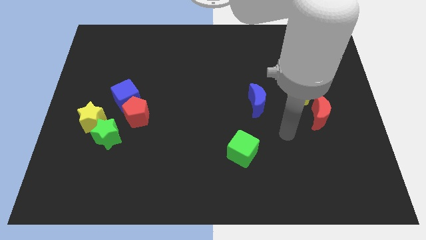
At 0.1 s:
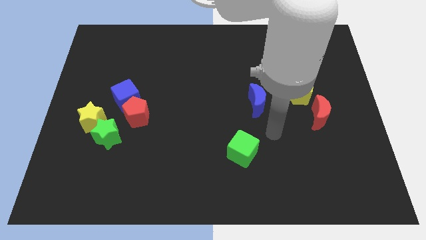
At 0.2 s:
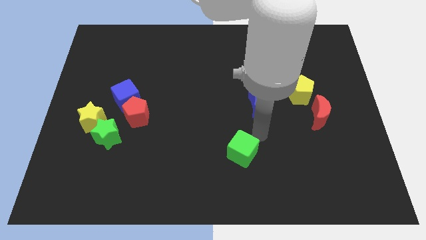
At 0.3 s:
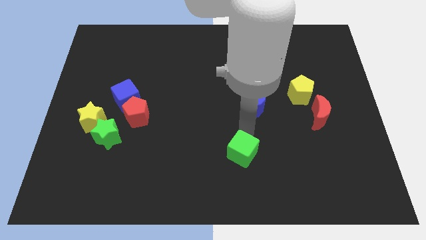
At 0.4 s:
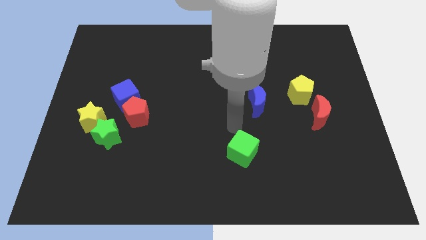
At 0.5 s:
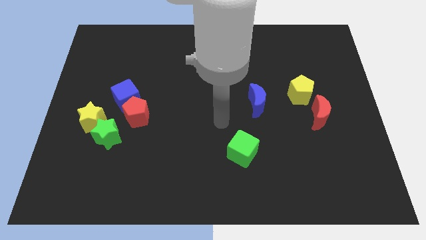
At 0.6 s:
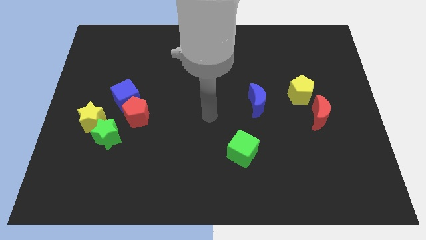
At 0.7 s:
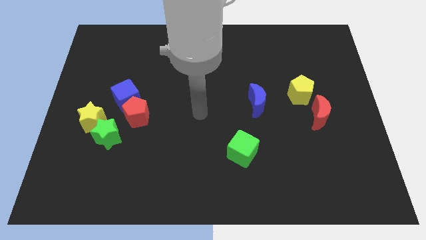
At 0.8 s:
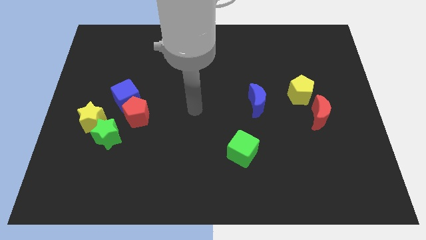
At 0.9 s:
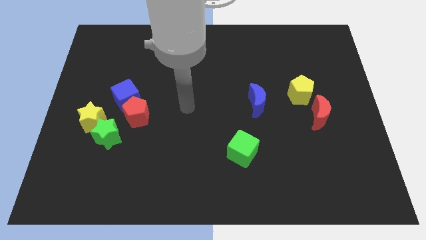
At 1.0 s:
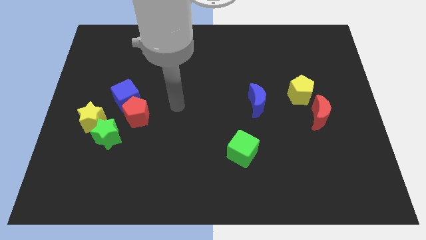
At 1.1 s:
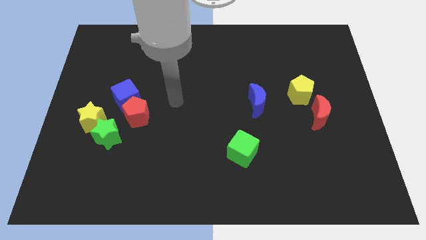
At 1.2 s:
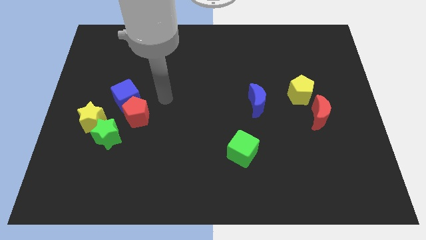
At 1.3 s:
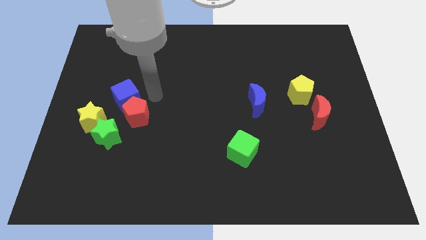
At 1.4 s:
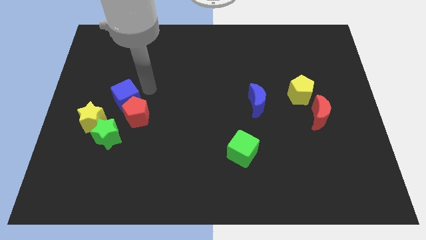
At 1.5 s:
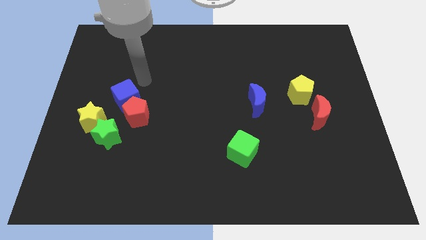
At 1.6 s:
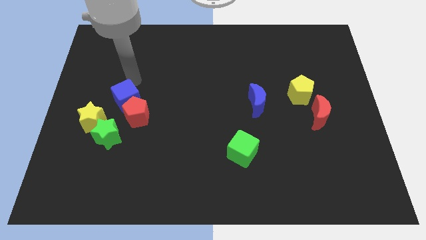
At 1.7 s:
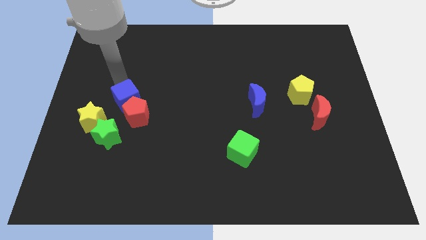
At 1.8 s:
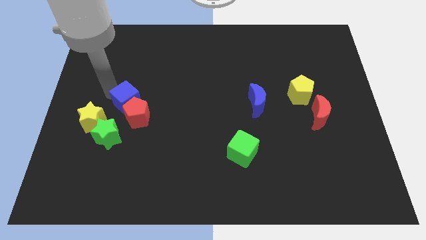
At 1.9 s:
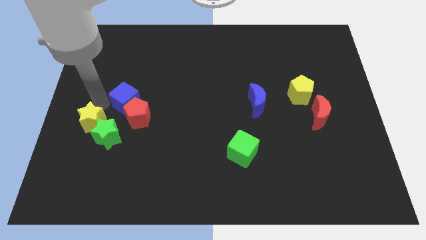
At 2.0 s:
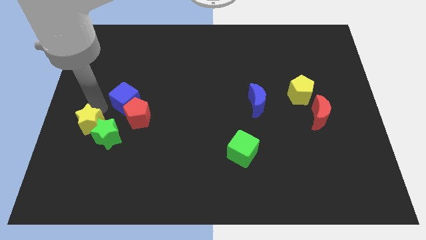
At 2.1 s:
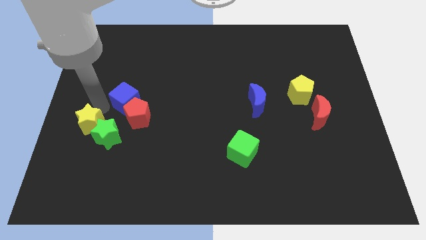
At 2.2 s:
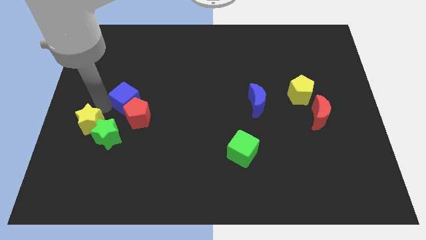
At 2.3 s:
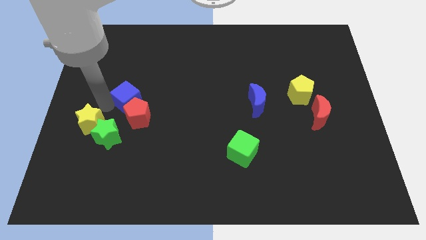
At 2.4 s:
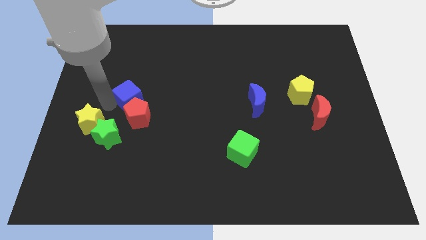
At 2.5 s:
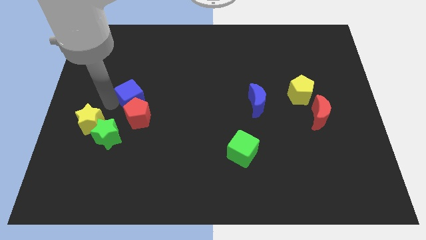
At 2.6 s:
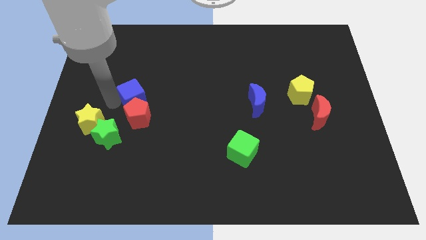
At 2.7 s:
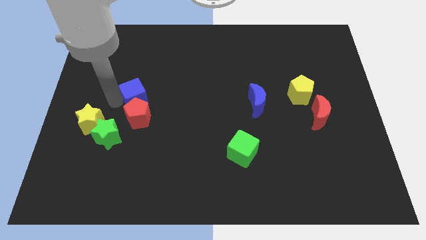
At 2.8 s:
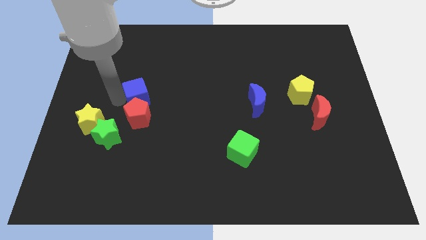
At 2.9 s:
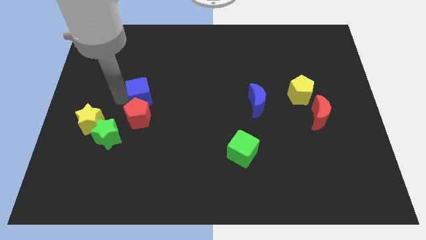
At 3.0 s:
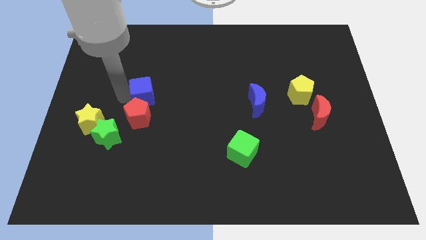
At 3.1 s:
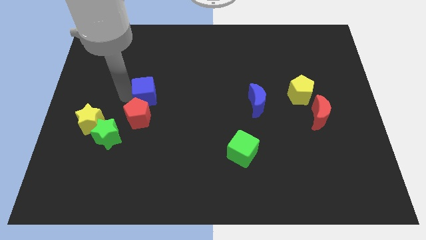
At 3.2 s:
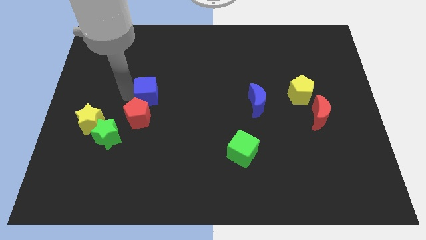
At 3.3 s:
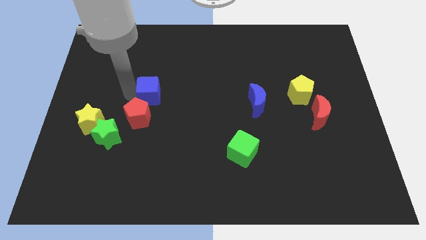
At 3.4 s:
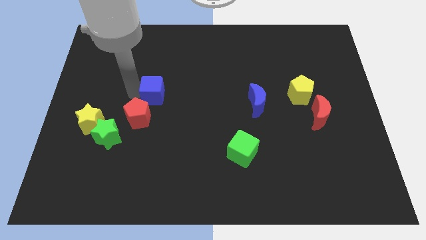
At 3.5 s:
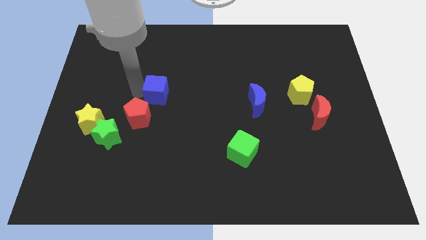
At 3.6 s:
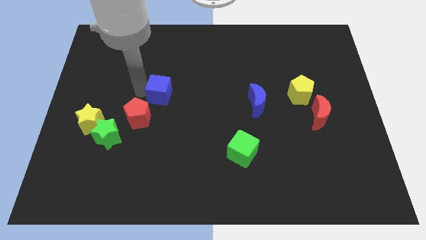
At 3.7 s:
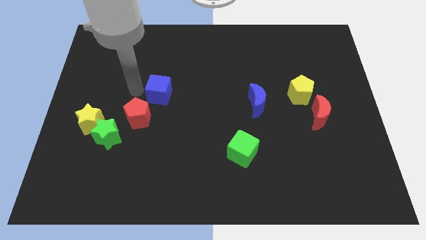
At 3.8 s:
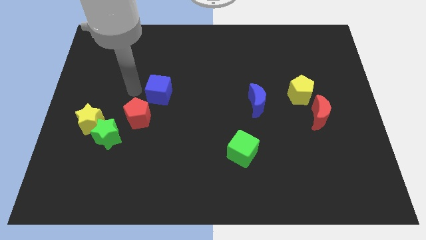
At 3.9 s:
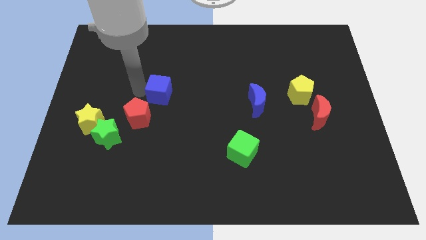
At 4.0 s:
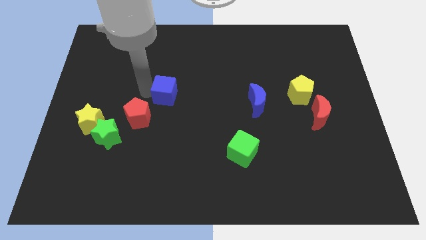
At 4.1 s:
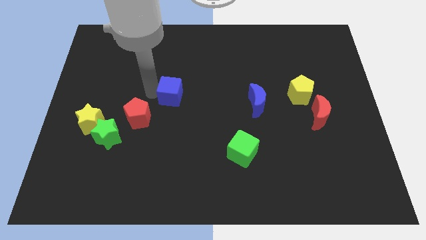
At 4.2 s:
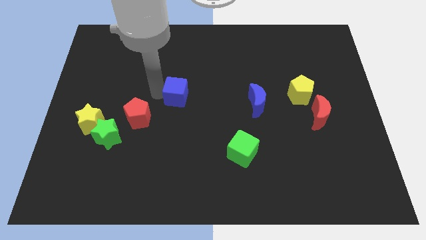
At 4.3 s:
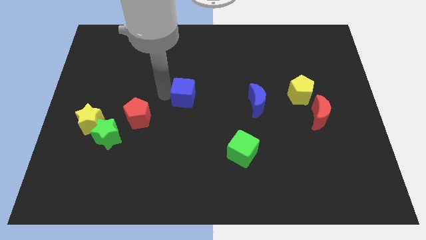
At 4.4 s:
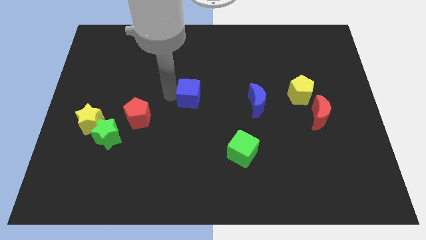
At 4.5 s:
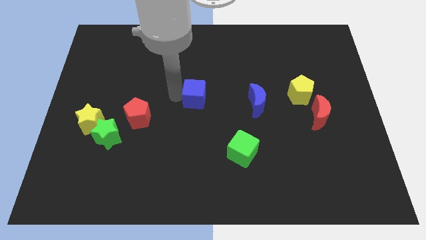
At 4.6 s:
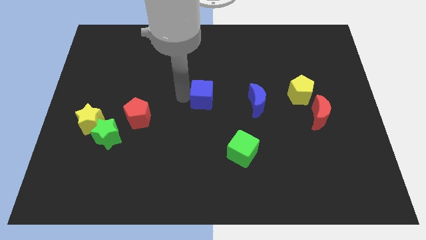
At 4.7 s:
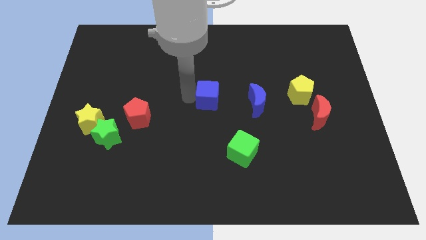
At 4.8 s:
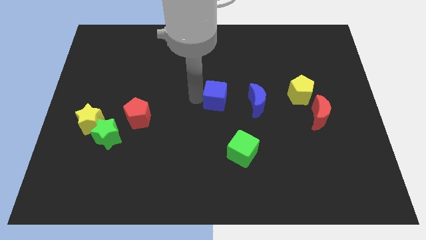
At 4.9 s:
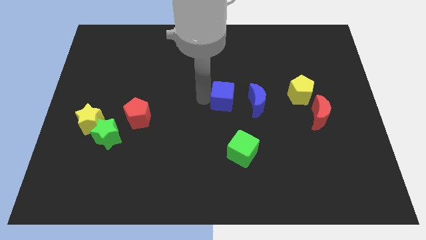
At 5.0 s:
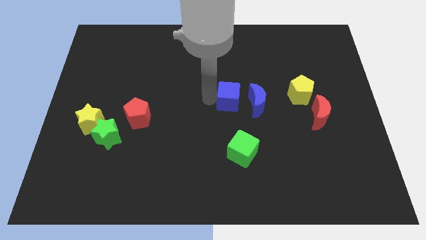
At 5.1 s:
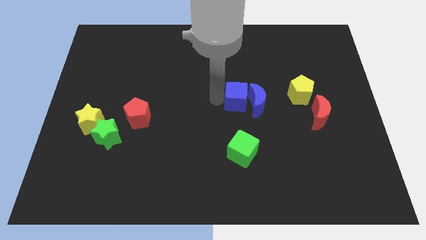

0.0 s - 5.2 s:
push the blue cube next to the blue moon

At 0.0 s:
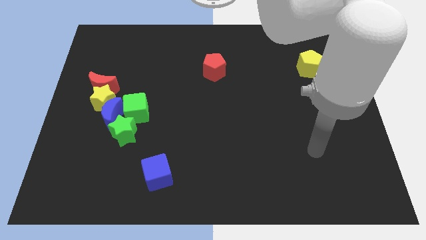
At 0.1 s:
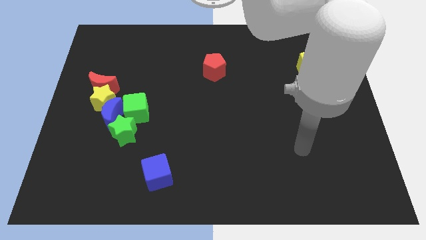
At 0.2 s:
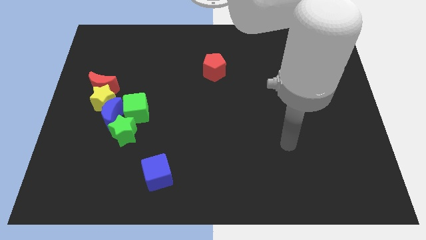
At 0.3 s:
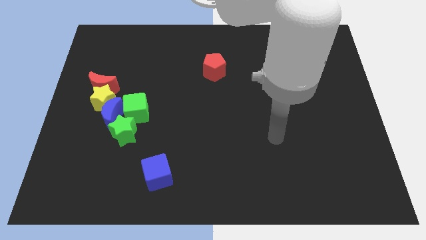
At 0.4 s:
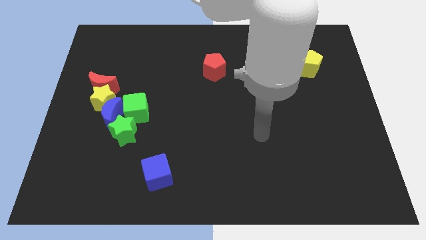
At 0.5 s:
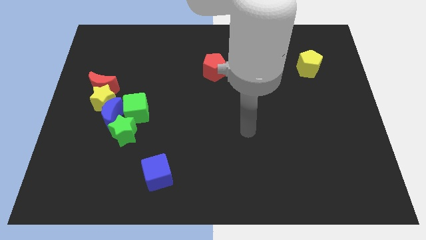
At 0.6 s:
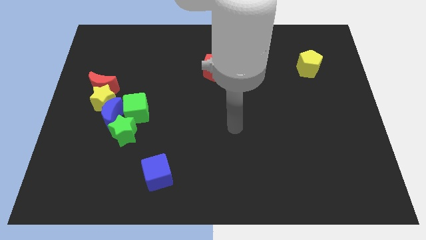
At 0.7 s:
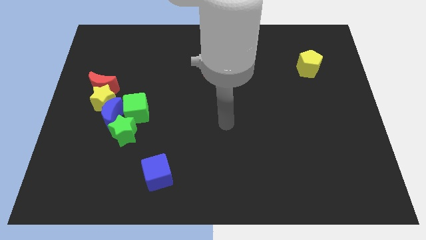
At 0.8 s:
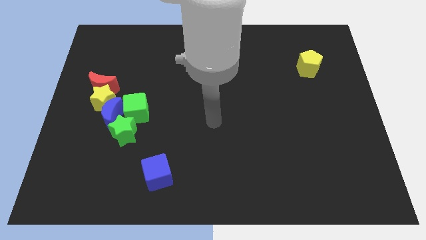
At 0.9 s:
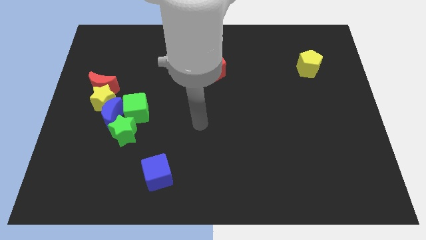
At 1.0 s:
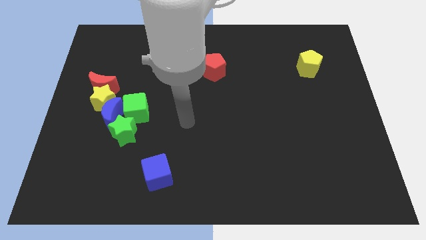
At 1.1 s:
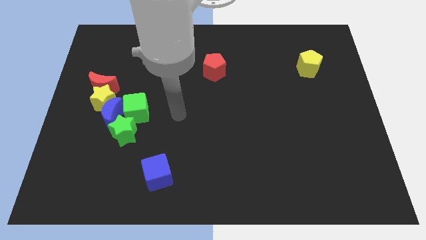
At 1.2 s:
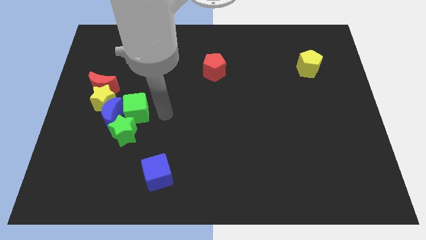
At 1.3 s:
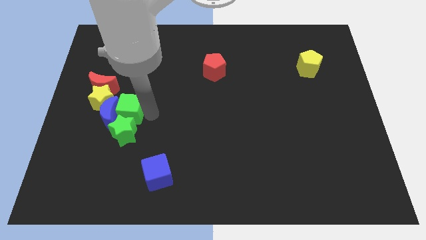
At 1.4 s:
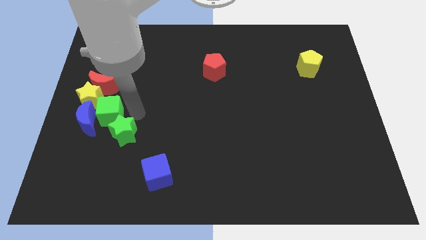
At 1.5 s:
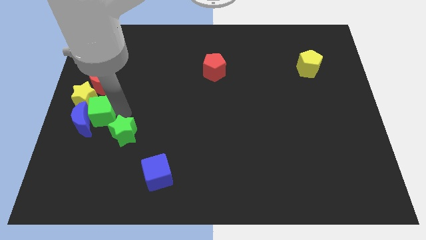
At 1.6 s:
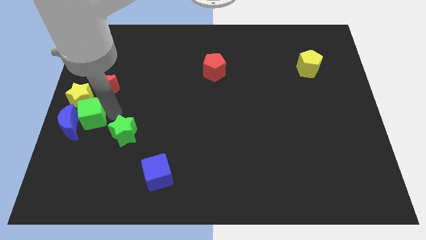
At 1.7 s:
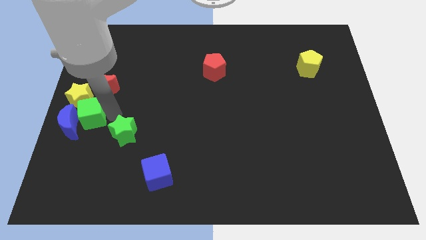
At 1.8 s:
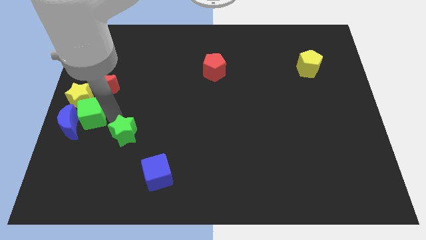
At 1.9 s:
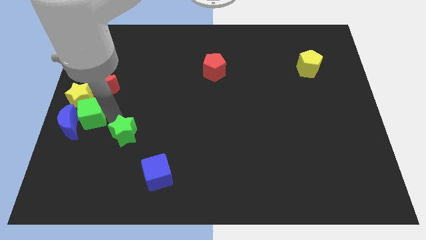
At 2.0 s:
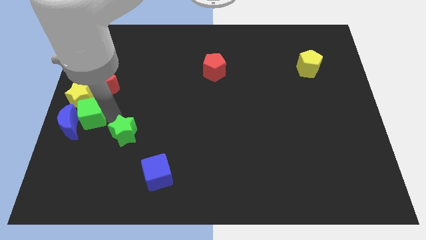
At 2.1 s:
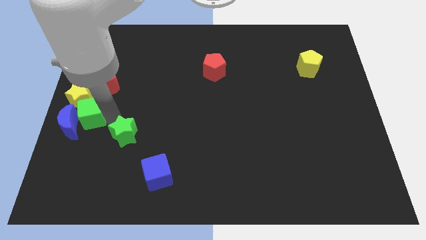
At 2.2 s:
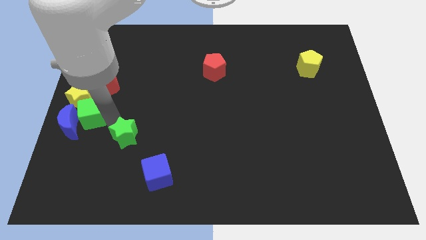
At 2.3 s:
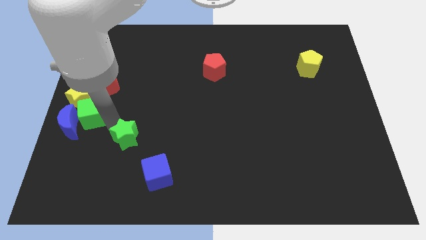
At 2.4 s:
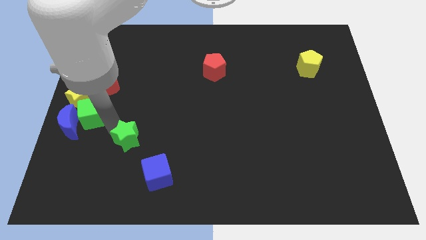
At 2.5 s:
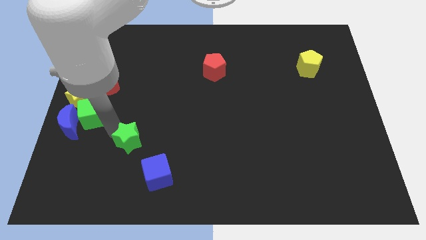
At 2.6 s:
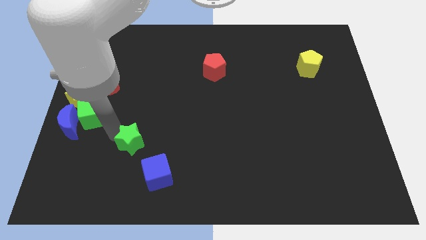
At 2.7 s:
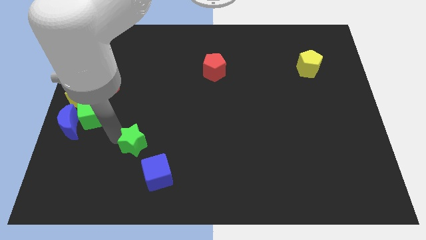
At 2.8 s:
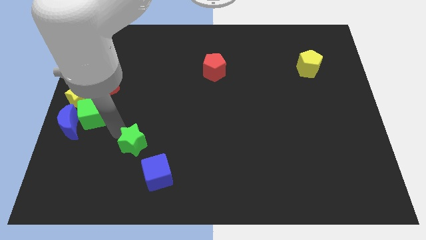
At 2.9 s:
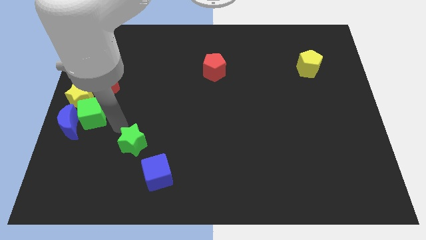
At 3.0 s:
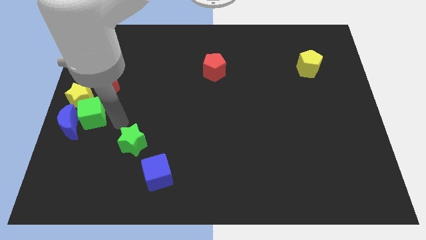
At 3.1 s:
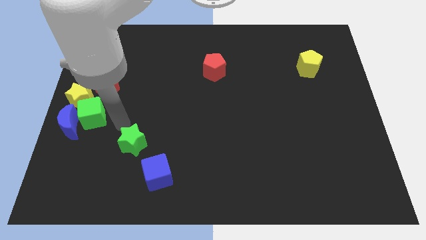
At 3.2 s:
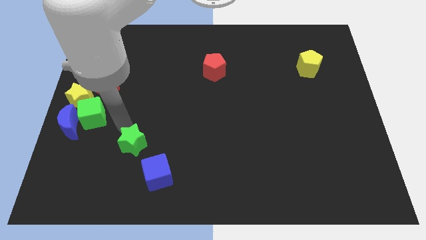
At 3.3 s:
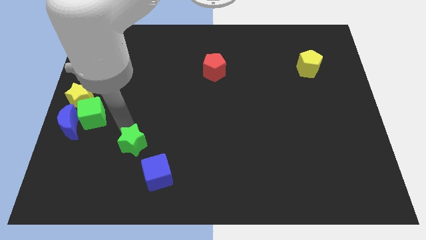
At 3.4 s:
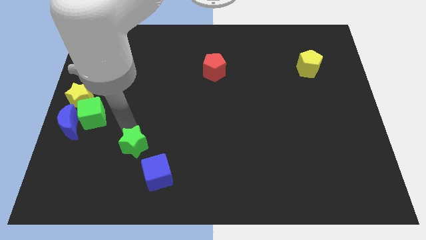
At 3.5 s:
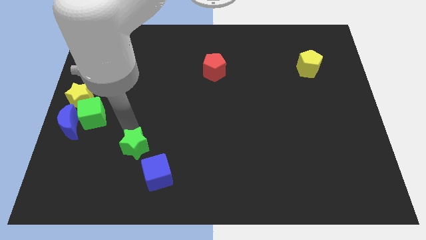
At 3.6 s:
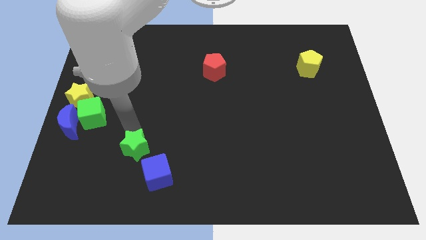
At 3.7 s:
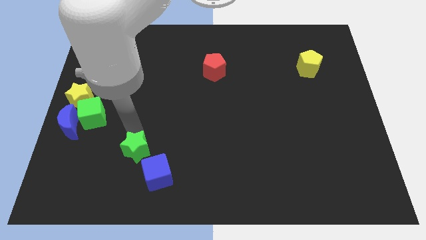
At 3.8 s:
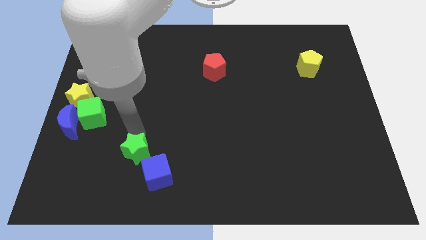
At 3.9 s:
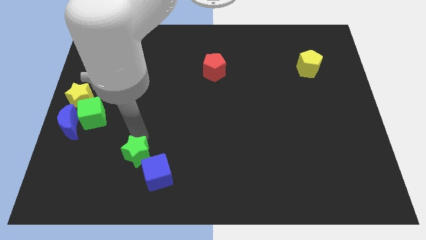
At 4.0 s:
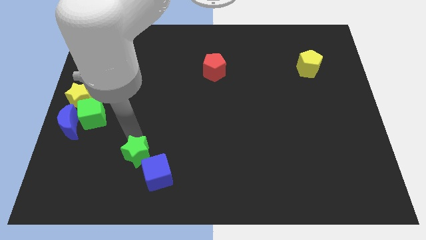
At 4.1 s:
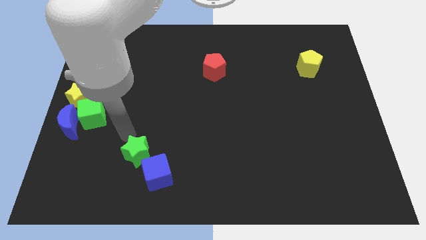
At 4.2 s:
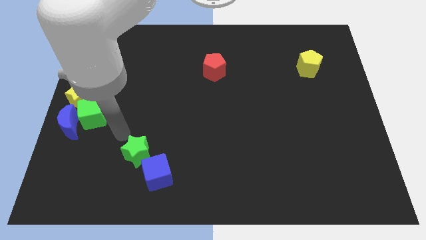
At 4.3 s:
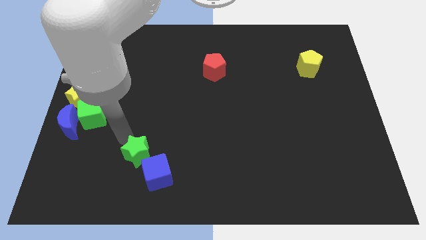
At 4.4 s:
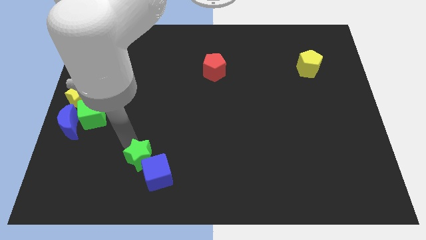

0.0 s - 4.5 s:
move the green star next to the blue cube
